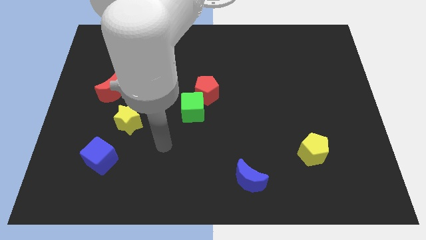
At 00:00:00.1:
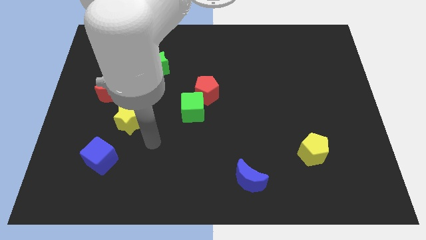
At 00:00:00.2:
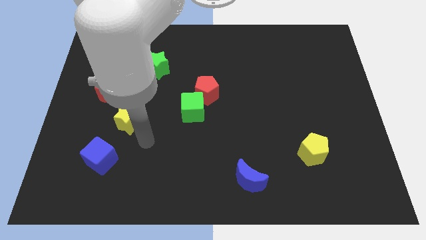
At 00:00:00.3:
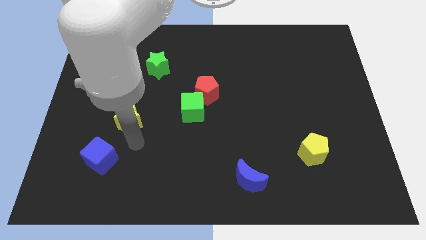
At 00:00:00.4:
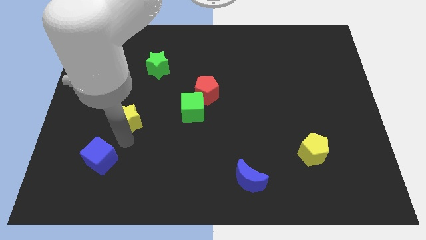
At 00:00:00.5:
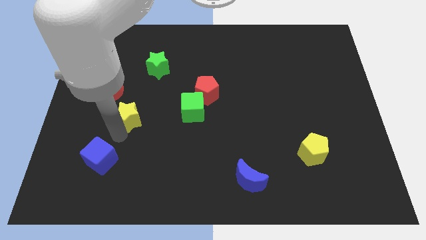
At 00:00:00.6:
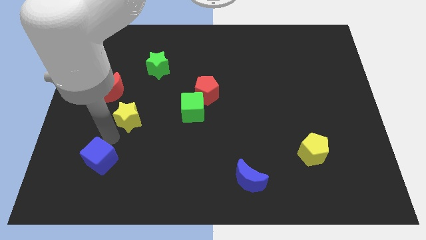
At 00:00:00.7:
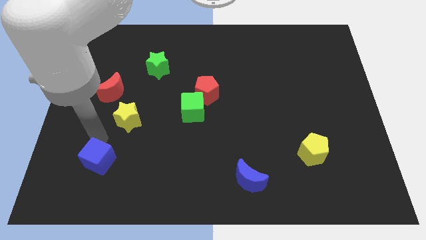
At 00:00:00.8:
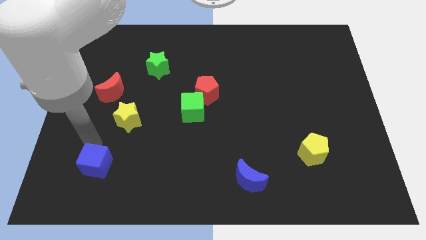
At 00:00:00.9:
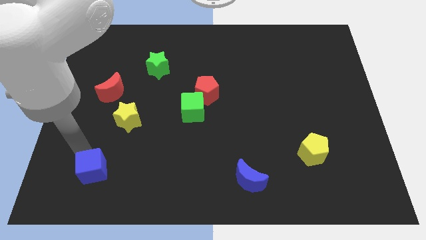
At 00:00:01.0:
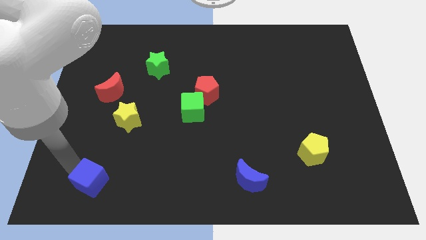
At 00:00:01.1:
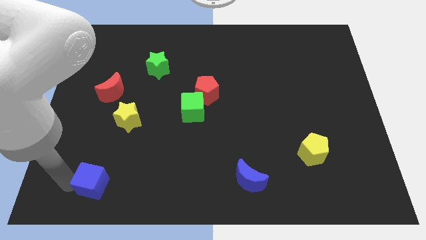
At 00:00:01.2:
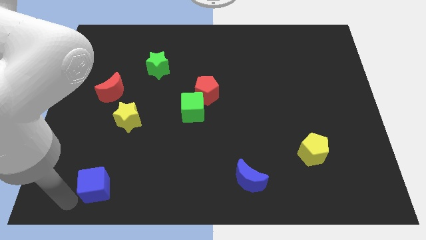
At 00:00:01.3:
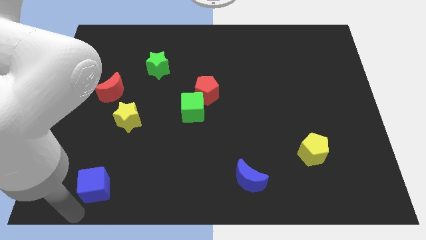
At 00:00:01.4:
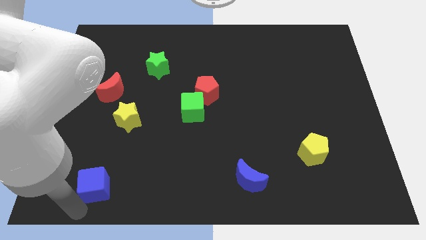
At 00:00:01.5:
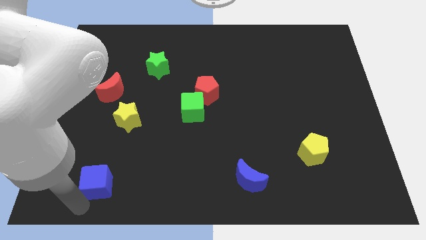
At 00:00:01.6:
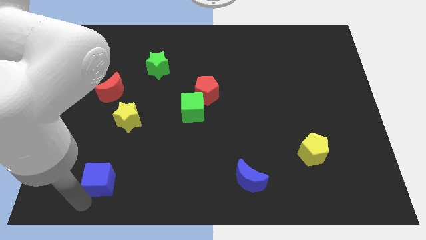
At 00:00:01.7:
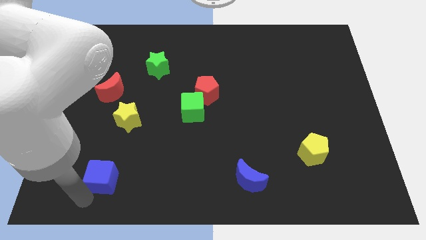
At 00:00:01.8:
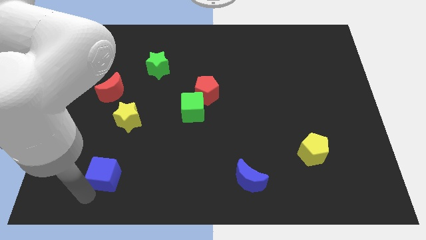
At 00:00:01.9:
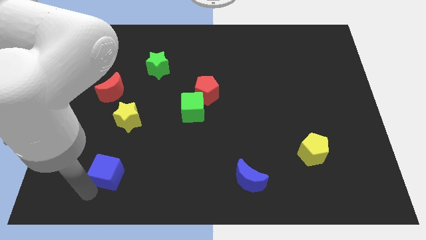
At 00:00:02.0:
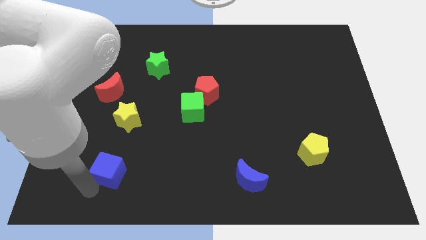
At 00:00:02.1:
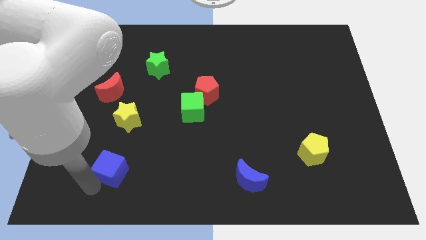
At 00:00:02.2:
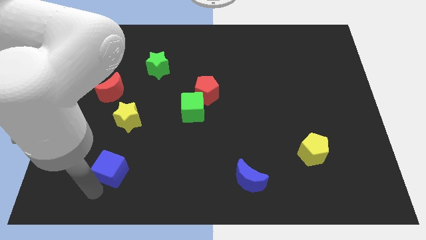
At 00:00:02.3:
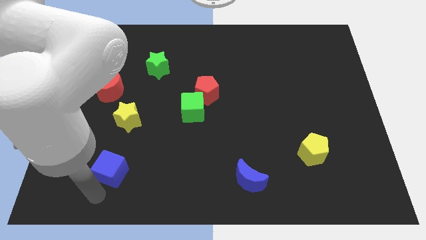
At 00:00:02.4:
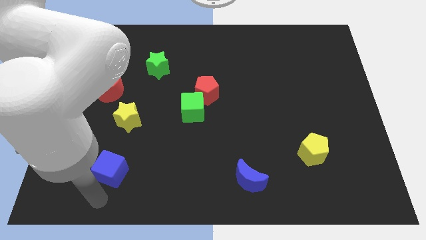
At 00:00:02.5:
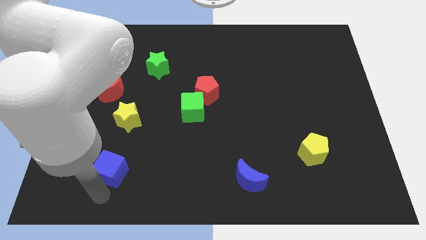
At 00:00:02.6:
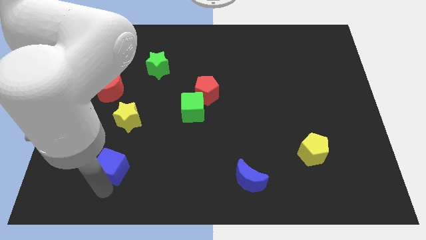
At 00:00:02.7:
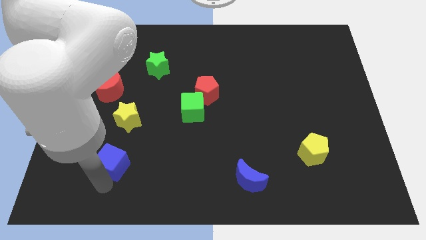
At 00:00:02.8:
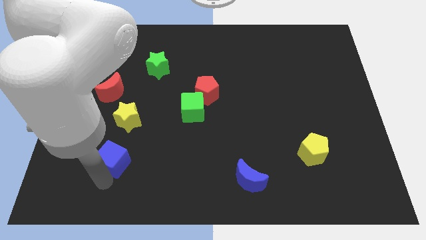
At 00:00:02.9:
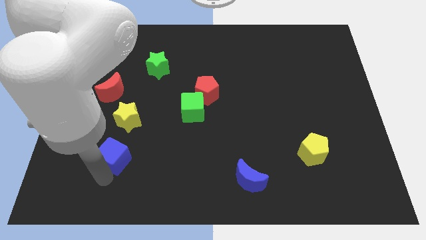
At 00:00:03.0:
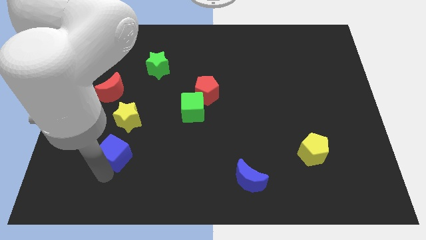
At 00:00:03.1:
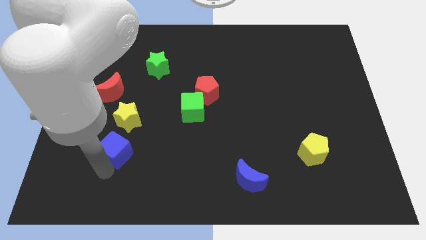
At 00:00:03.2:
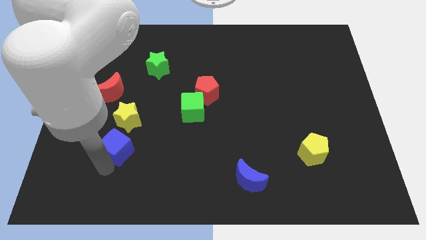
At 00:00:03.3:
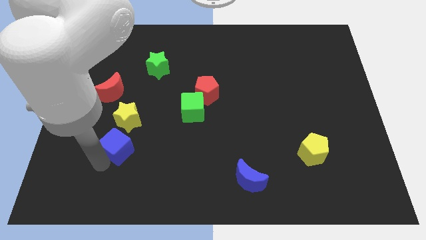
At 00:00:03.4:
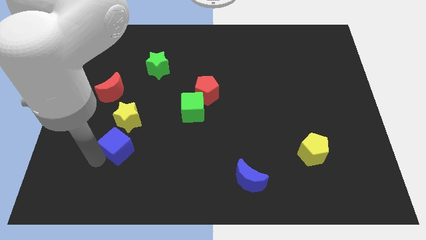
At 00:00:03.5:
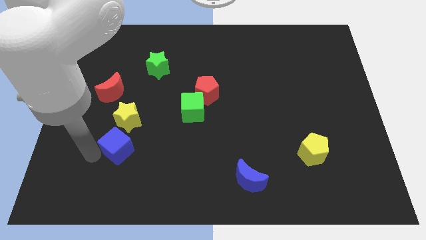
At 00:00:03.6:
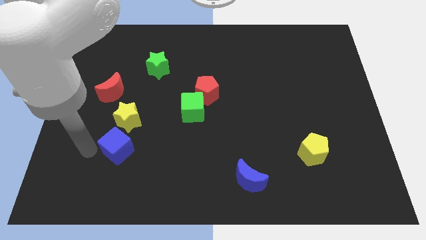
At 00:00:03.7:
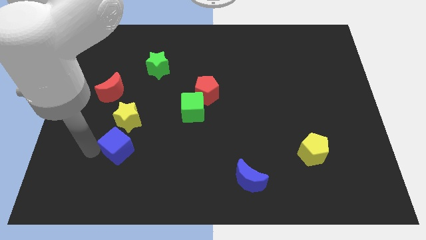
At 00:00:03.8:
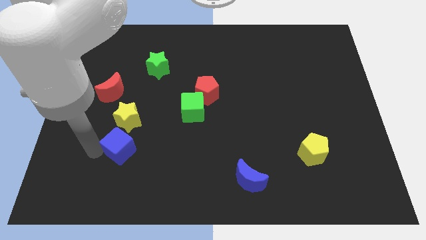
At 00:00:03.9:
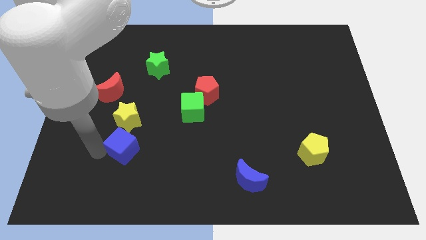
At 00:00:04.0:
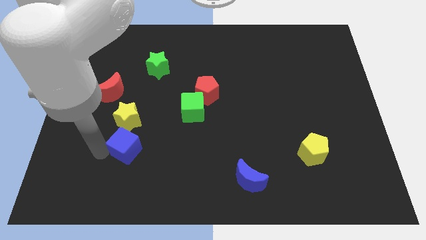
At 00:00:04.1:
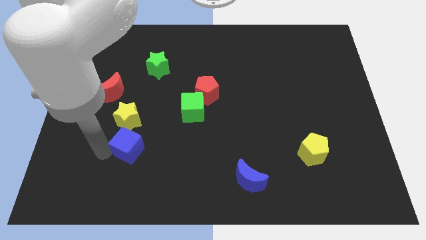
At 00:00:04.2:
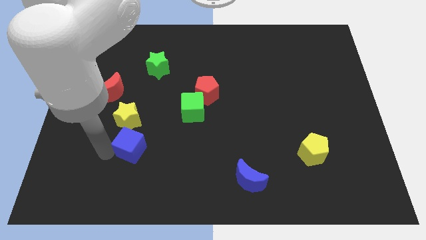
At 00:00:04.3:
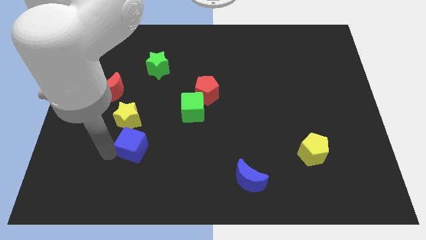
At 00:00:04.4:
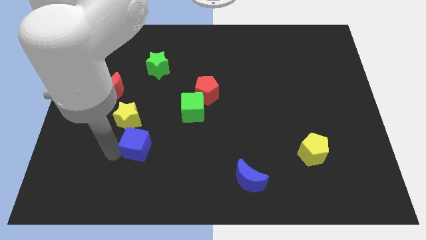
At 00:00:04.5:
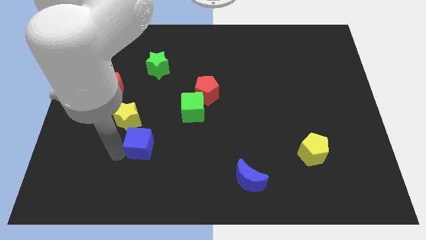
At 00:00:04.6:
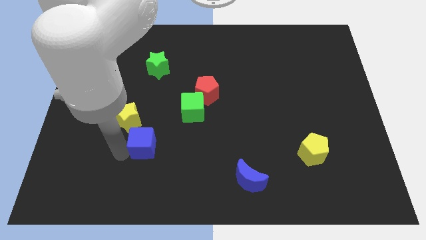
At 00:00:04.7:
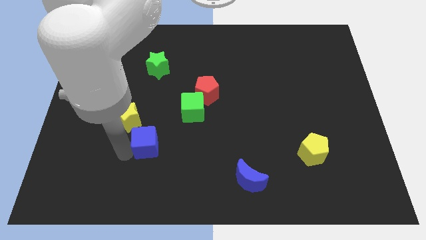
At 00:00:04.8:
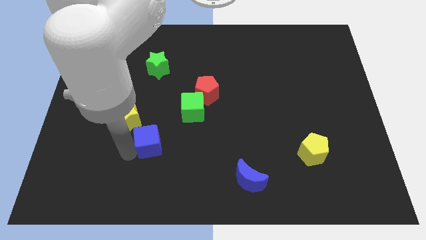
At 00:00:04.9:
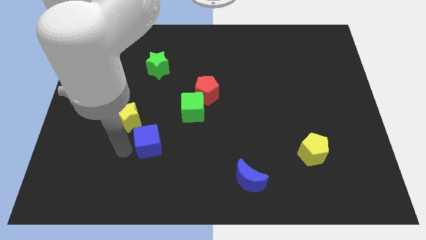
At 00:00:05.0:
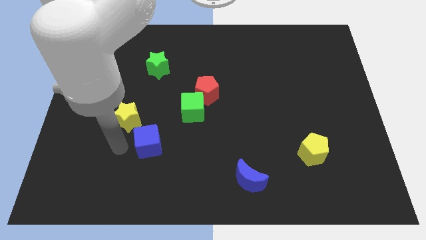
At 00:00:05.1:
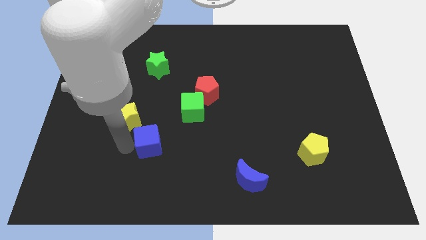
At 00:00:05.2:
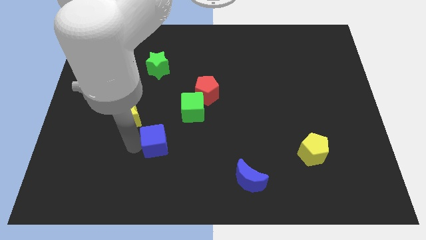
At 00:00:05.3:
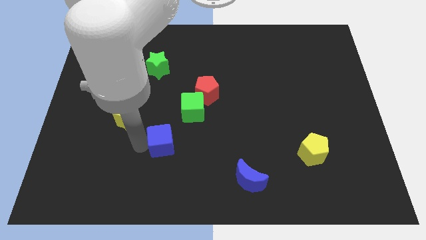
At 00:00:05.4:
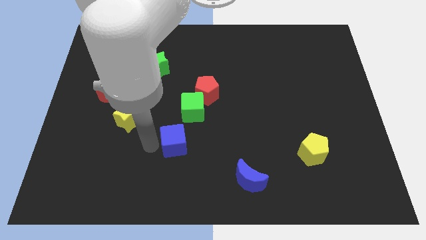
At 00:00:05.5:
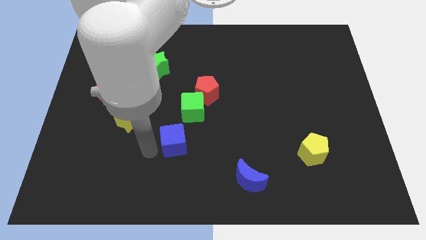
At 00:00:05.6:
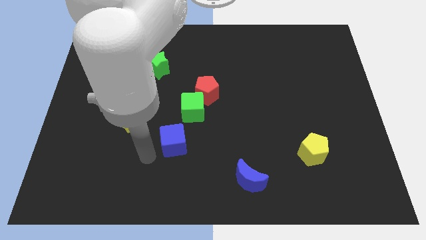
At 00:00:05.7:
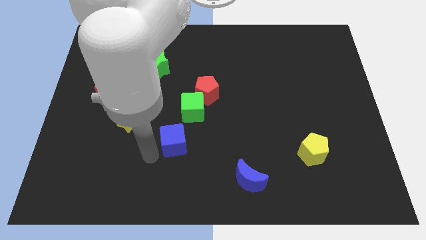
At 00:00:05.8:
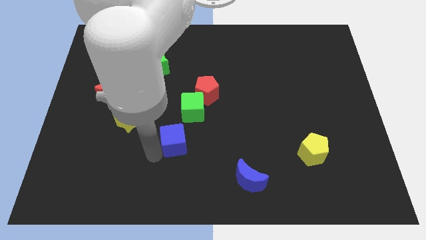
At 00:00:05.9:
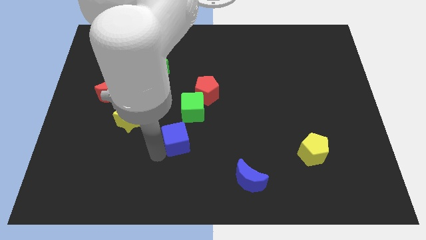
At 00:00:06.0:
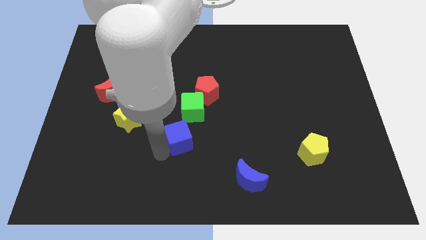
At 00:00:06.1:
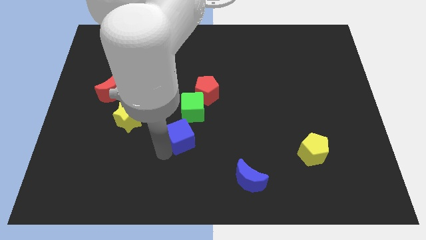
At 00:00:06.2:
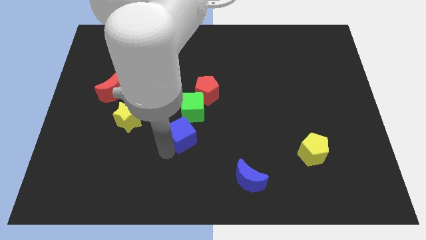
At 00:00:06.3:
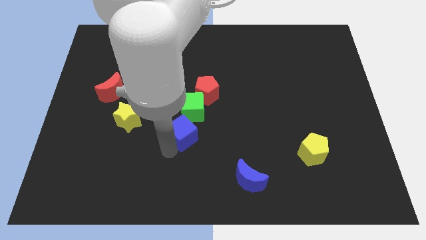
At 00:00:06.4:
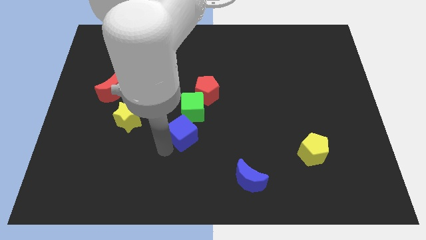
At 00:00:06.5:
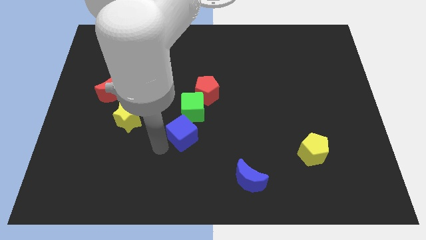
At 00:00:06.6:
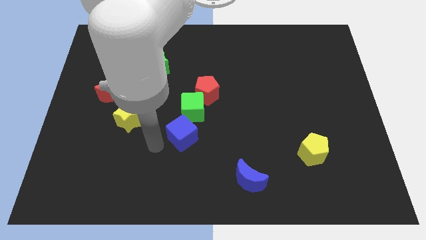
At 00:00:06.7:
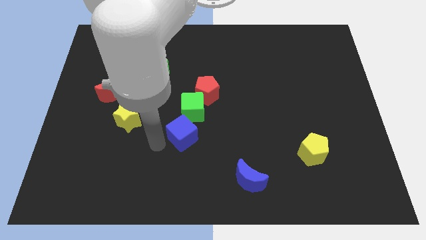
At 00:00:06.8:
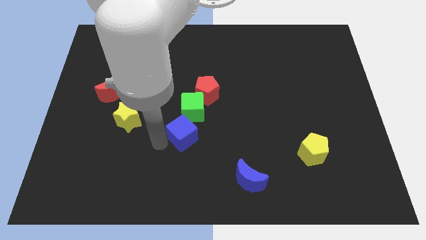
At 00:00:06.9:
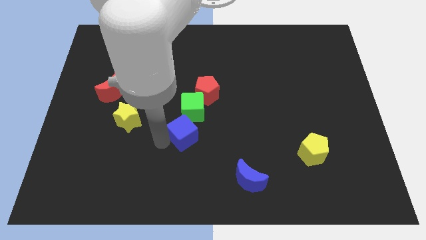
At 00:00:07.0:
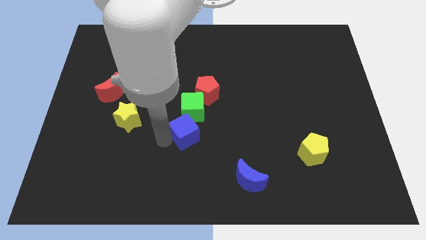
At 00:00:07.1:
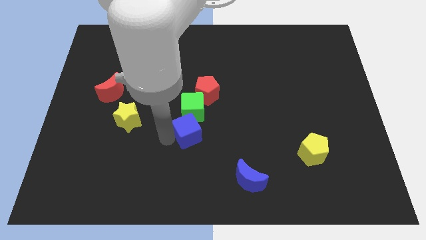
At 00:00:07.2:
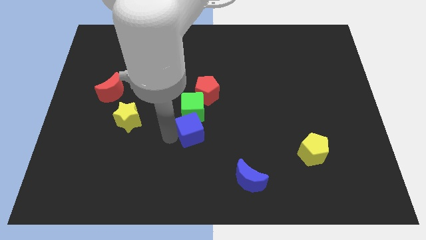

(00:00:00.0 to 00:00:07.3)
slide the blue cube to the bottom right of the green cube
